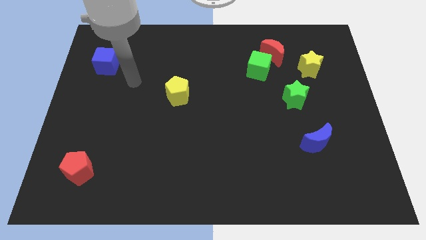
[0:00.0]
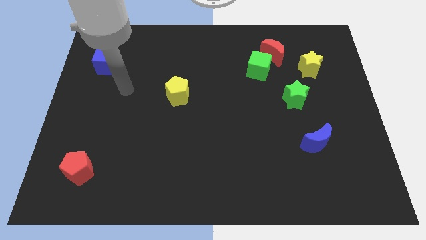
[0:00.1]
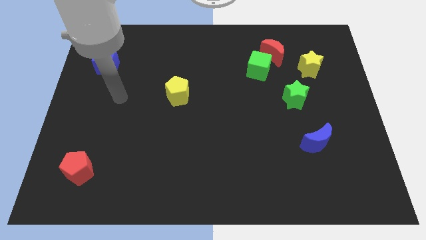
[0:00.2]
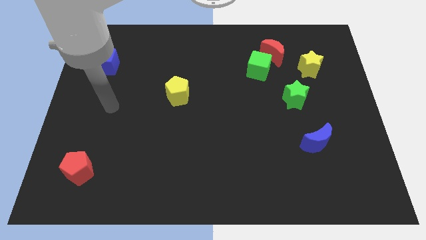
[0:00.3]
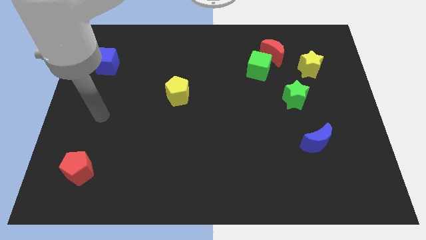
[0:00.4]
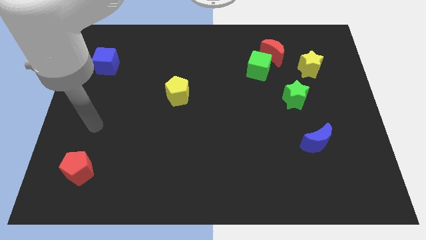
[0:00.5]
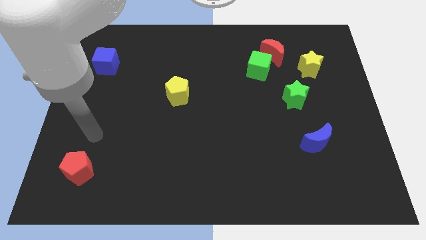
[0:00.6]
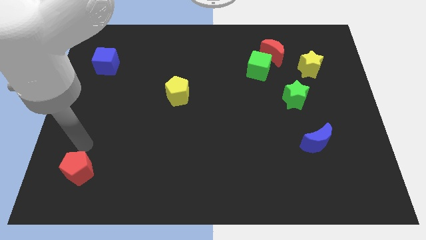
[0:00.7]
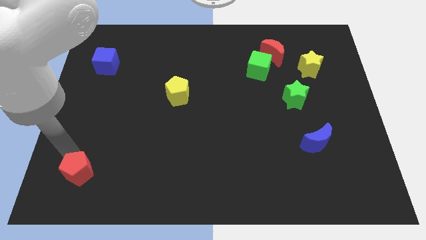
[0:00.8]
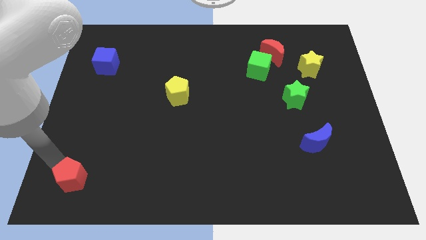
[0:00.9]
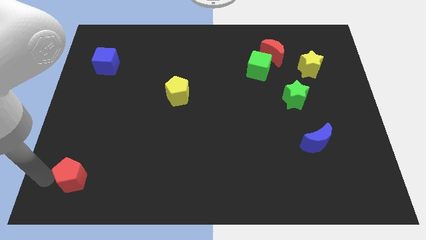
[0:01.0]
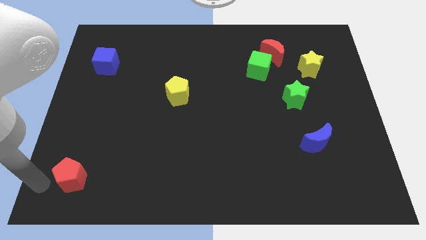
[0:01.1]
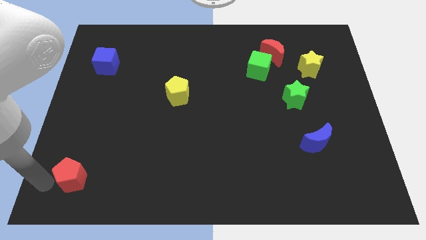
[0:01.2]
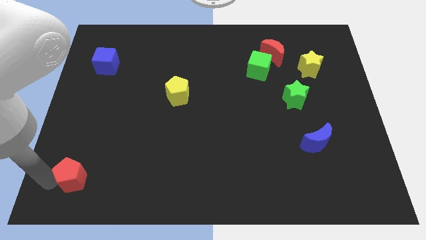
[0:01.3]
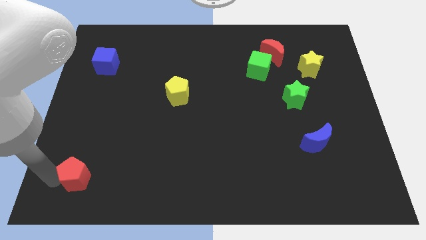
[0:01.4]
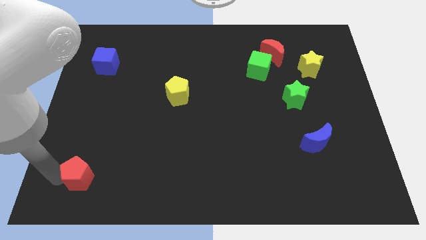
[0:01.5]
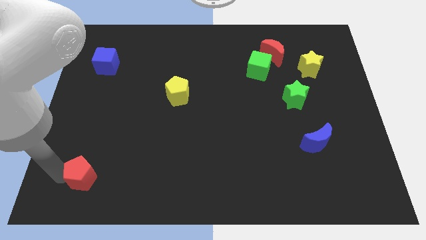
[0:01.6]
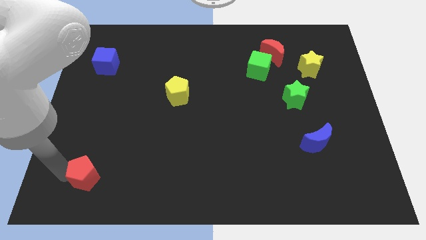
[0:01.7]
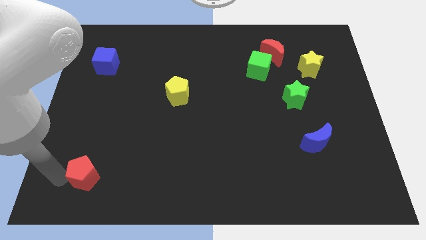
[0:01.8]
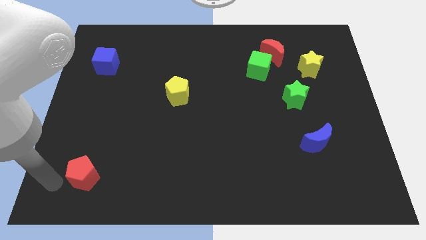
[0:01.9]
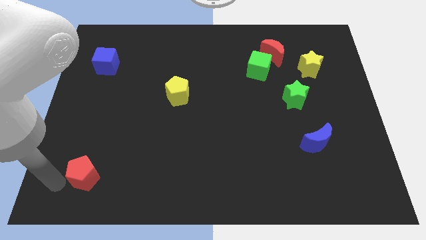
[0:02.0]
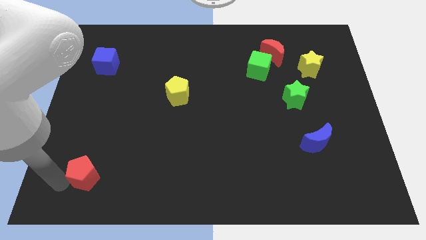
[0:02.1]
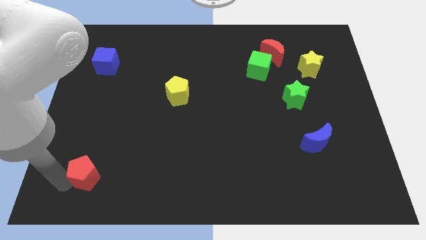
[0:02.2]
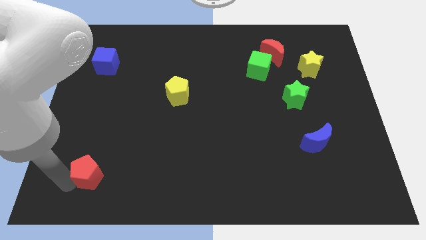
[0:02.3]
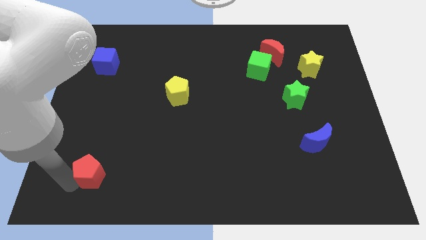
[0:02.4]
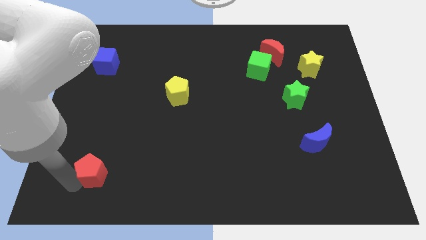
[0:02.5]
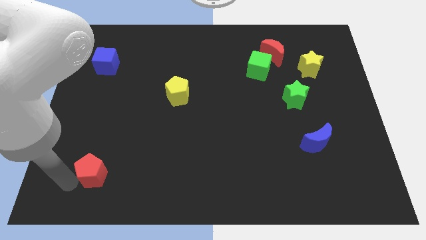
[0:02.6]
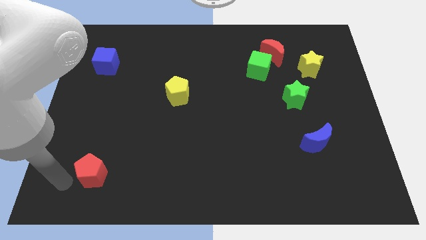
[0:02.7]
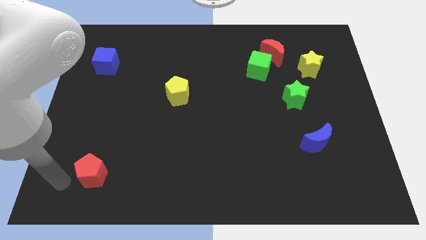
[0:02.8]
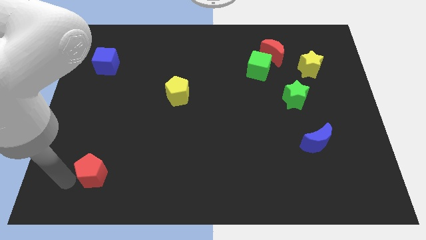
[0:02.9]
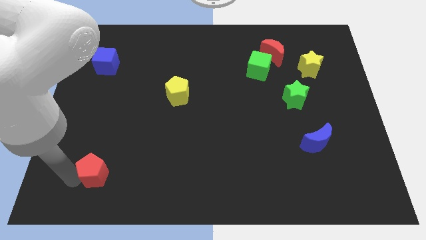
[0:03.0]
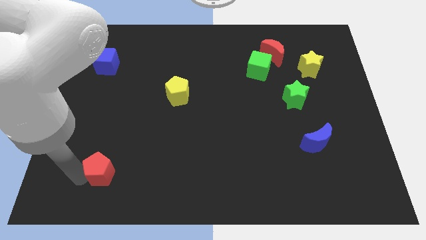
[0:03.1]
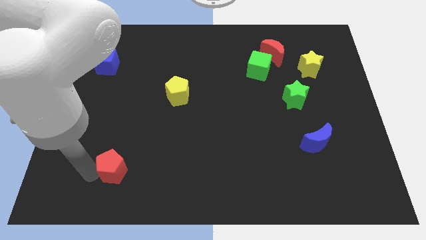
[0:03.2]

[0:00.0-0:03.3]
move the red pentagon right somewhat

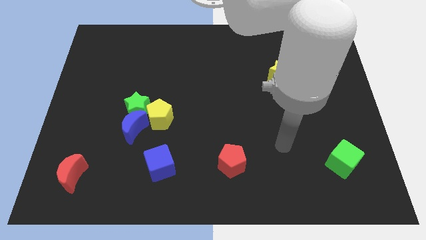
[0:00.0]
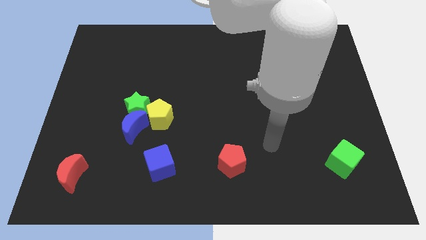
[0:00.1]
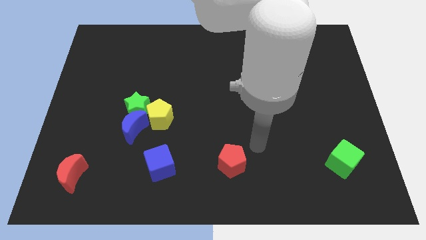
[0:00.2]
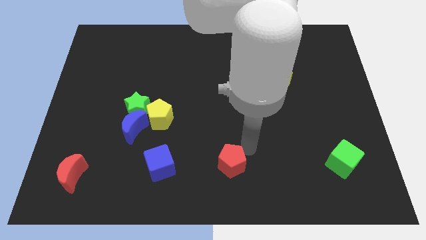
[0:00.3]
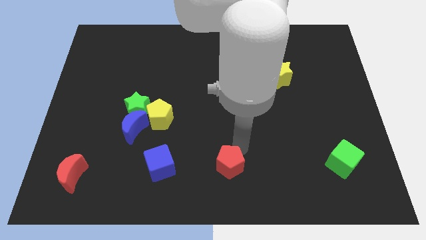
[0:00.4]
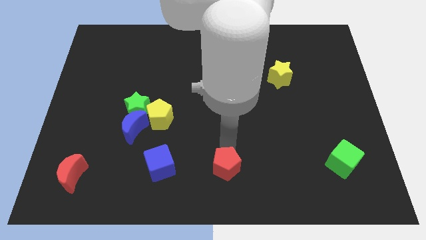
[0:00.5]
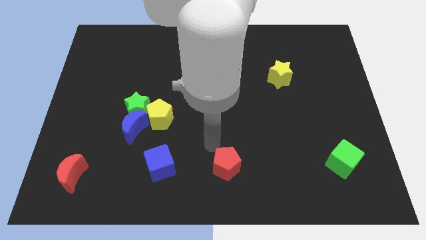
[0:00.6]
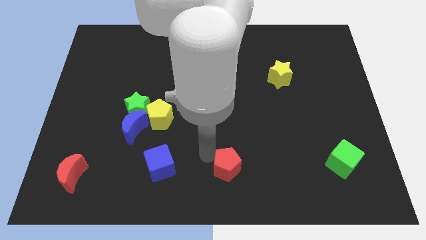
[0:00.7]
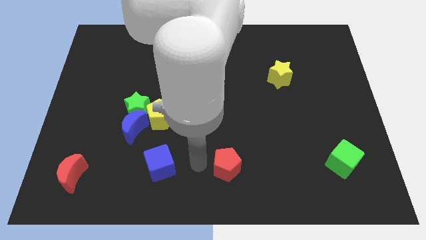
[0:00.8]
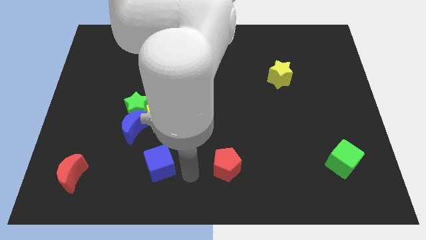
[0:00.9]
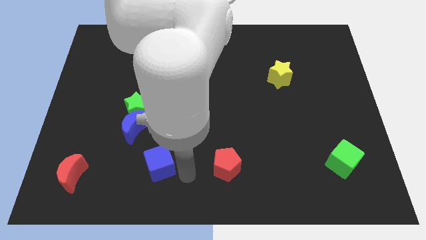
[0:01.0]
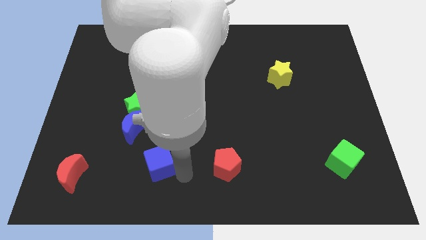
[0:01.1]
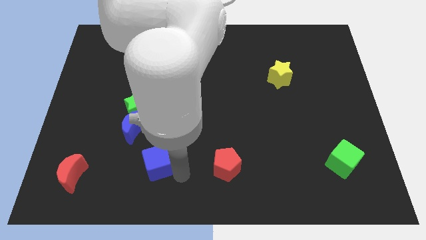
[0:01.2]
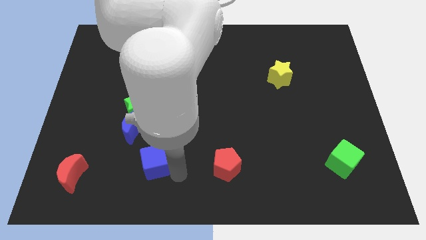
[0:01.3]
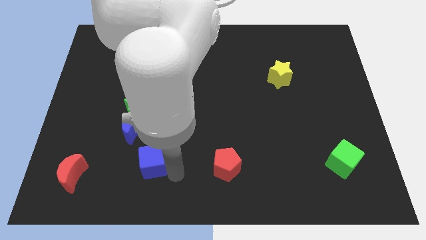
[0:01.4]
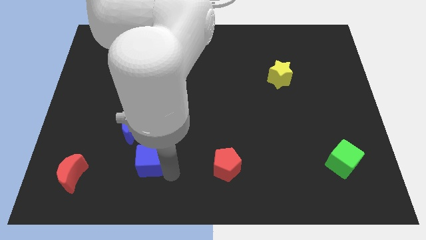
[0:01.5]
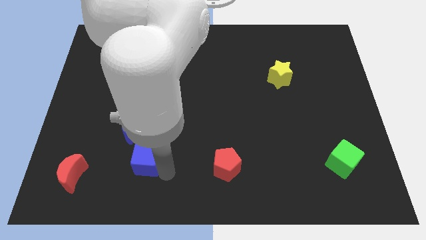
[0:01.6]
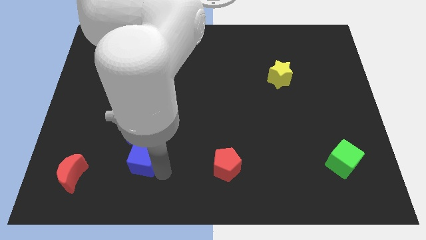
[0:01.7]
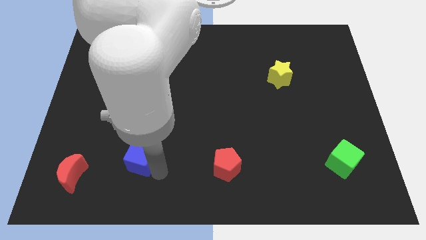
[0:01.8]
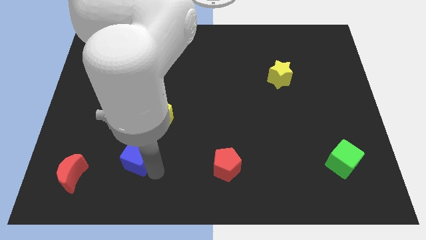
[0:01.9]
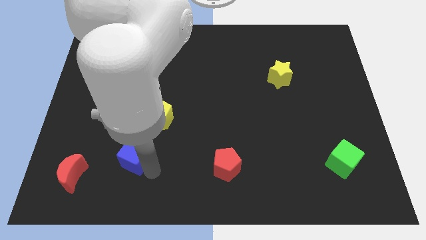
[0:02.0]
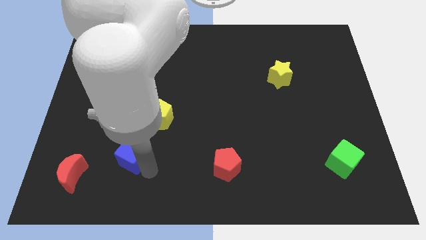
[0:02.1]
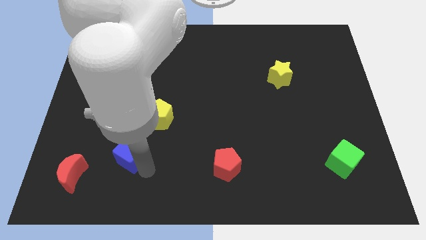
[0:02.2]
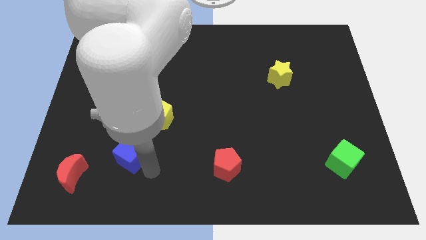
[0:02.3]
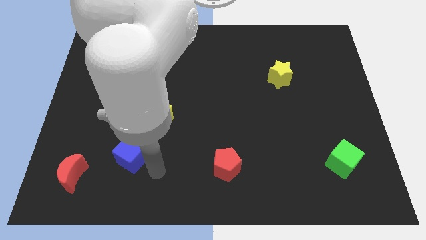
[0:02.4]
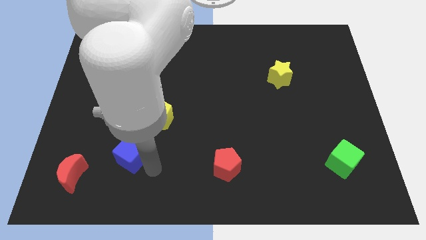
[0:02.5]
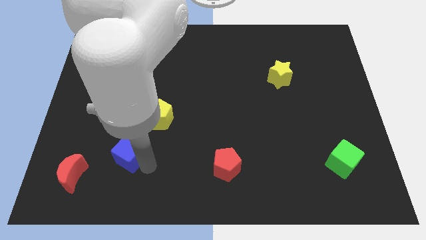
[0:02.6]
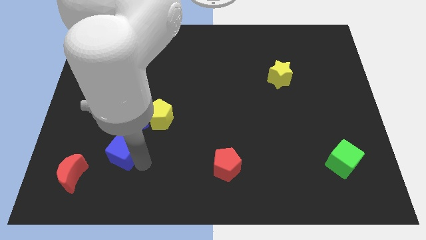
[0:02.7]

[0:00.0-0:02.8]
slightly slide the blue cube diagonally up and to the left

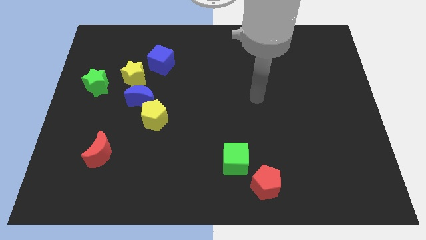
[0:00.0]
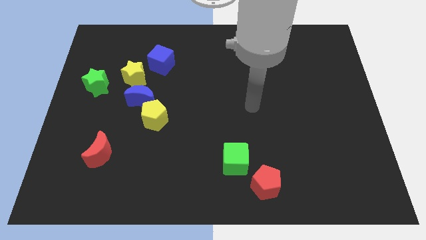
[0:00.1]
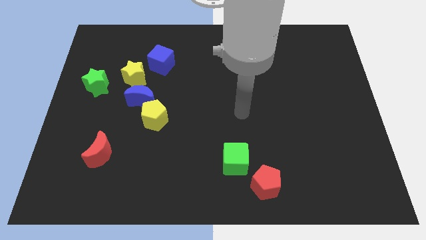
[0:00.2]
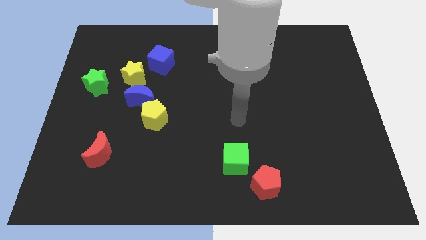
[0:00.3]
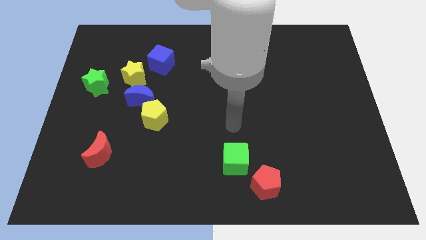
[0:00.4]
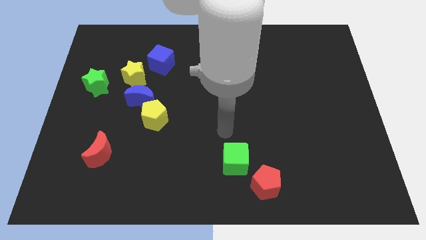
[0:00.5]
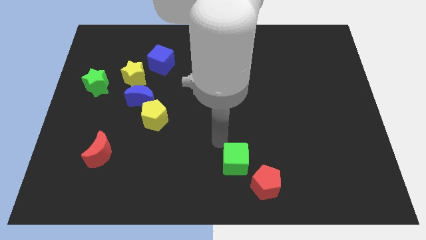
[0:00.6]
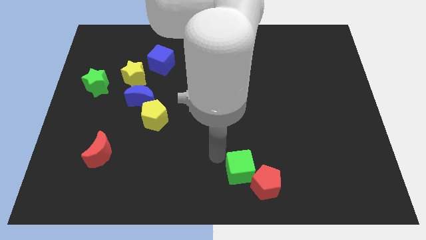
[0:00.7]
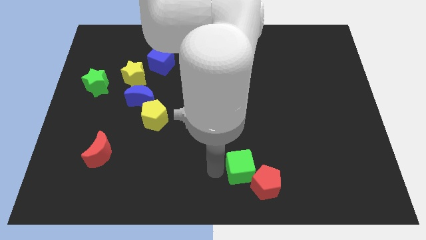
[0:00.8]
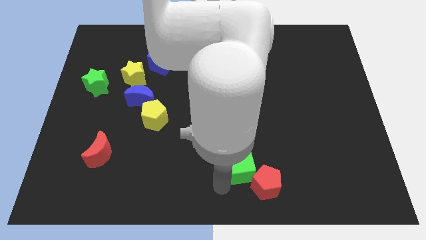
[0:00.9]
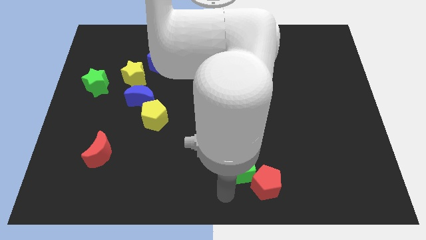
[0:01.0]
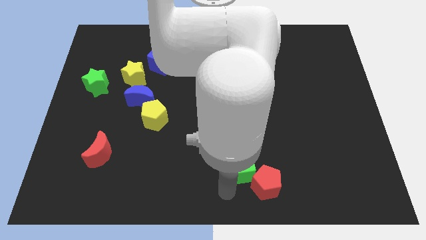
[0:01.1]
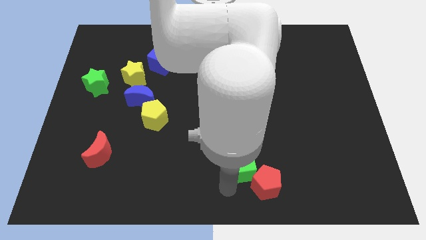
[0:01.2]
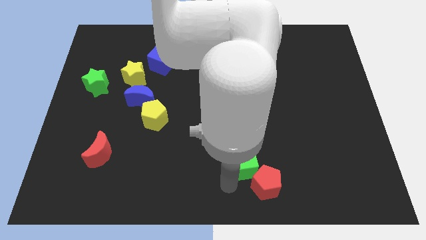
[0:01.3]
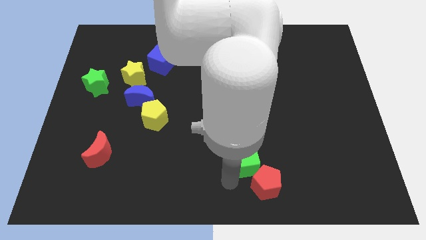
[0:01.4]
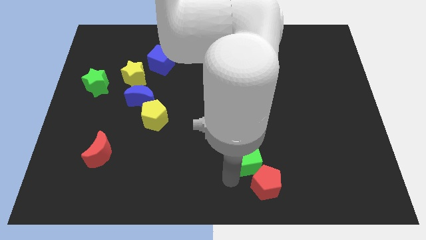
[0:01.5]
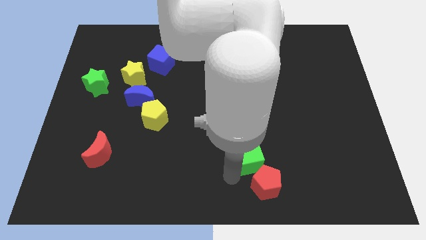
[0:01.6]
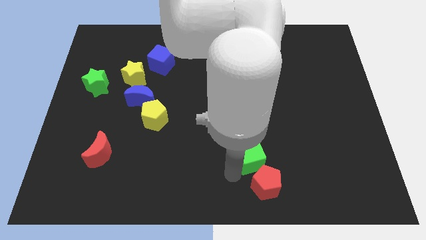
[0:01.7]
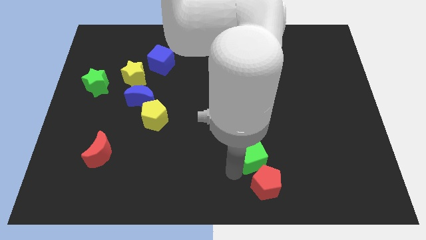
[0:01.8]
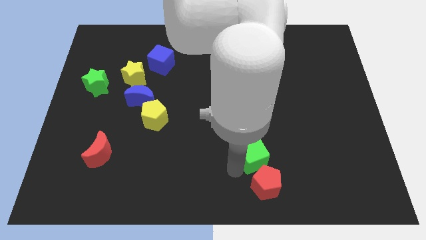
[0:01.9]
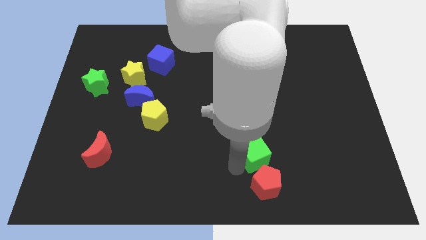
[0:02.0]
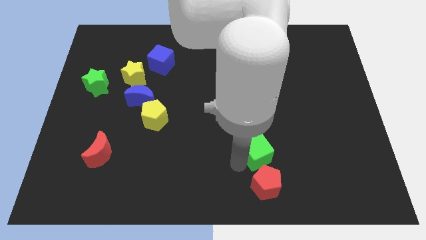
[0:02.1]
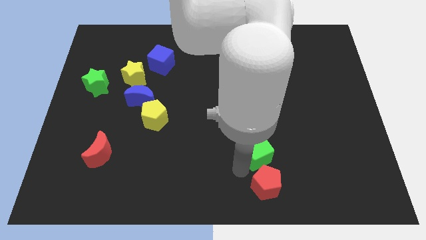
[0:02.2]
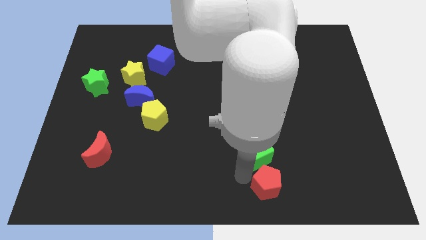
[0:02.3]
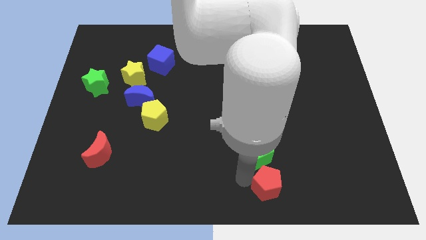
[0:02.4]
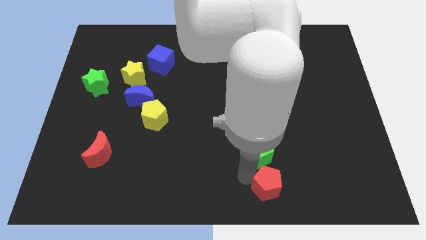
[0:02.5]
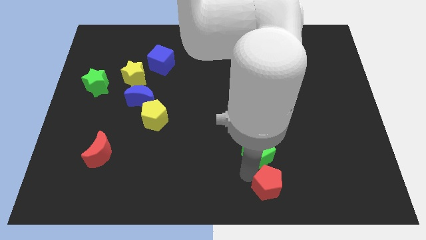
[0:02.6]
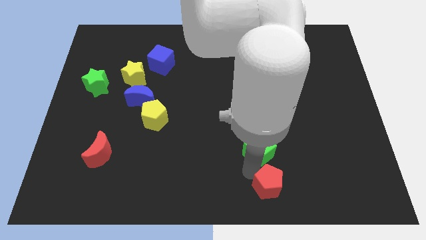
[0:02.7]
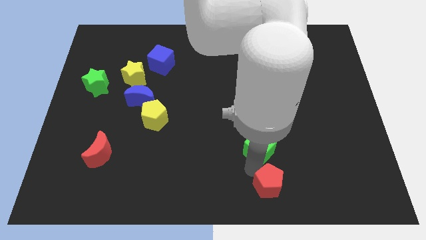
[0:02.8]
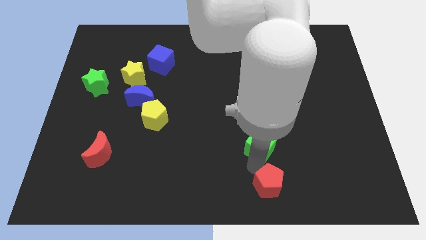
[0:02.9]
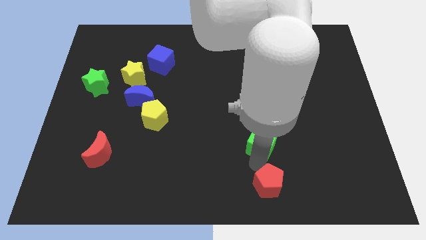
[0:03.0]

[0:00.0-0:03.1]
slightly slide the green cube diagonally up and right
